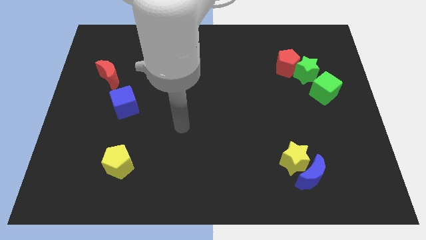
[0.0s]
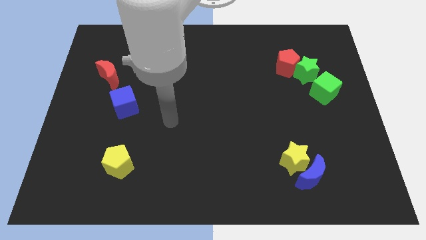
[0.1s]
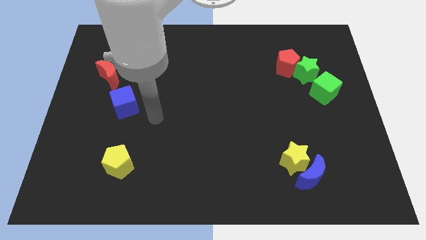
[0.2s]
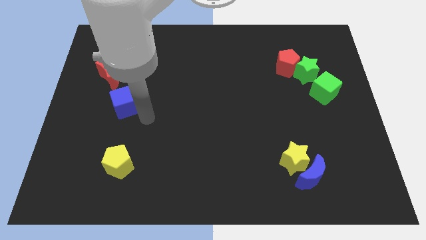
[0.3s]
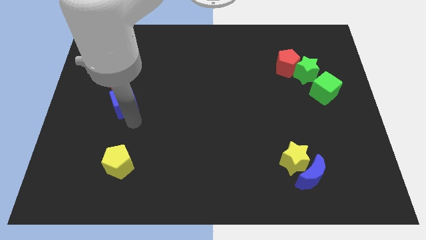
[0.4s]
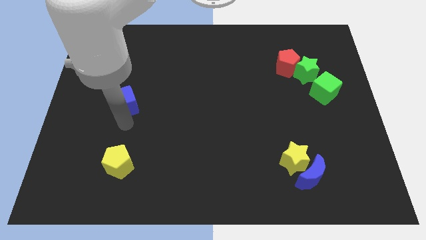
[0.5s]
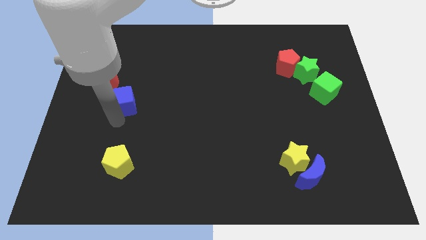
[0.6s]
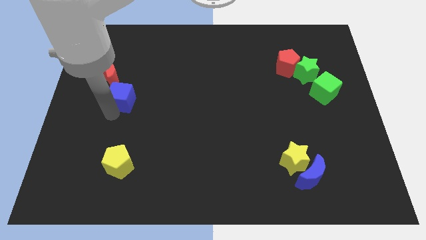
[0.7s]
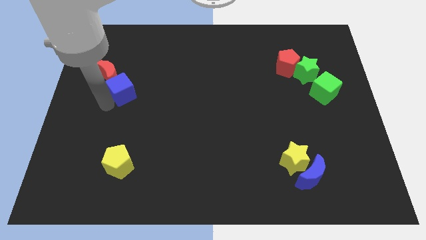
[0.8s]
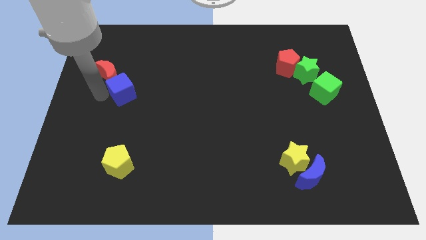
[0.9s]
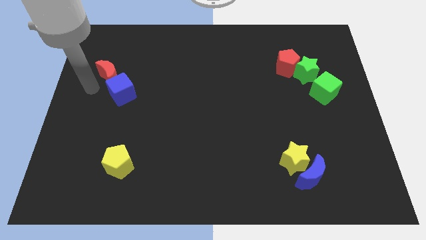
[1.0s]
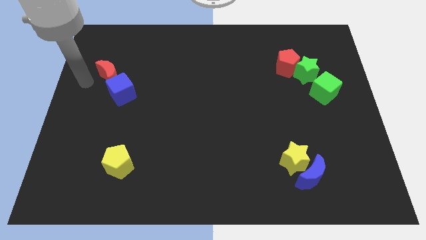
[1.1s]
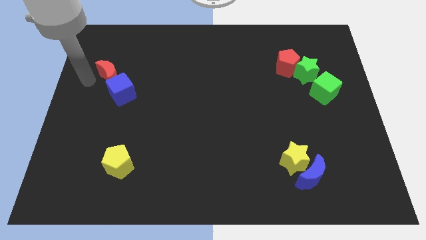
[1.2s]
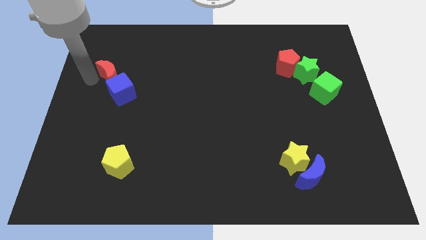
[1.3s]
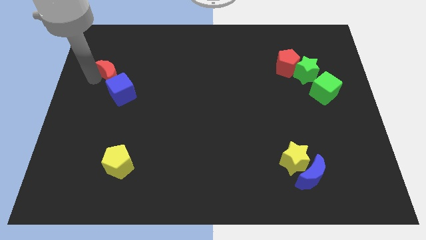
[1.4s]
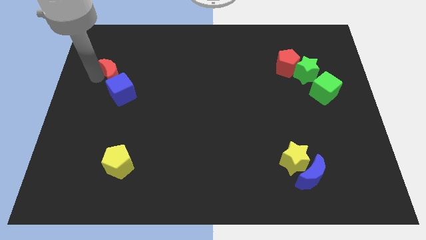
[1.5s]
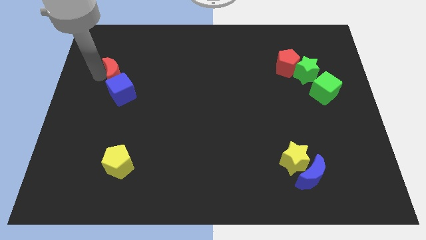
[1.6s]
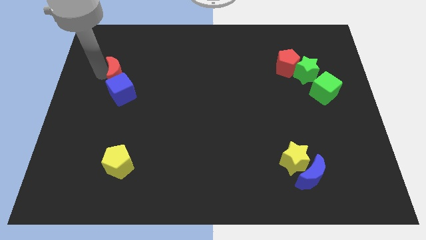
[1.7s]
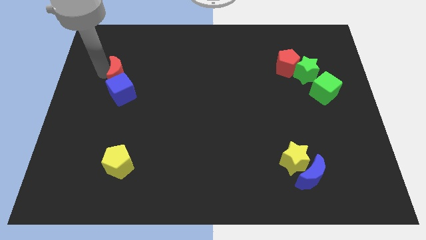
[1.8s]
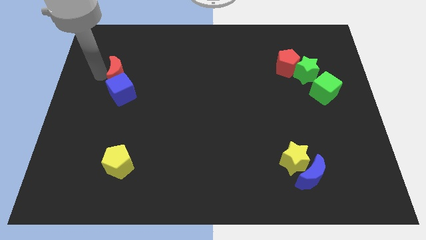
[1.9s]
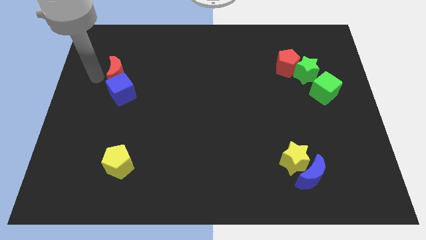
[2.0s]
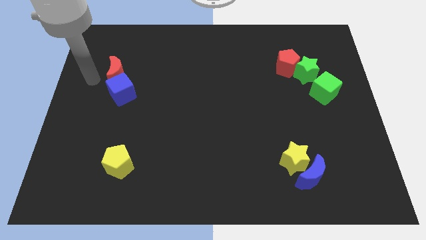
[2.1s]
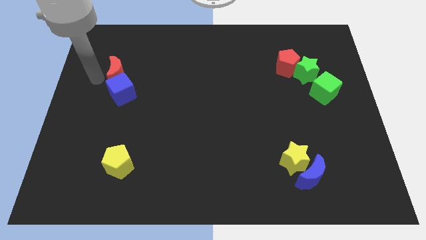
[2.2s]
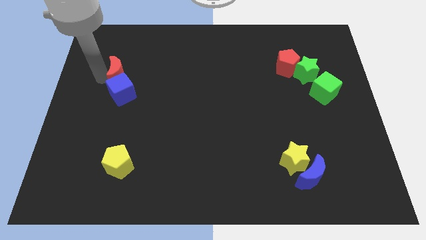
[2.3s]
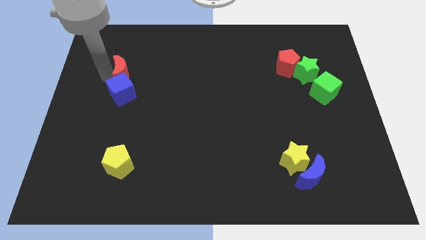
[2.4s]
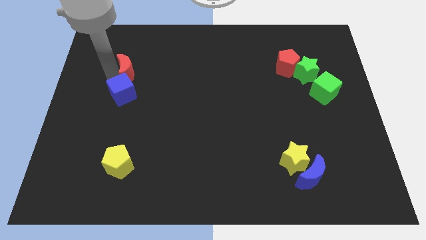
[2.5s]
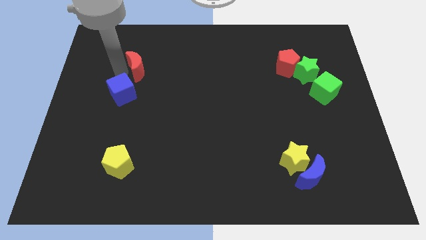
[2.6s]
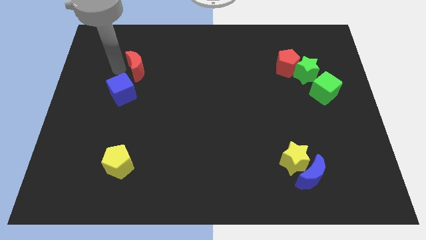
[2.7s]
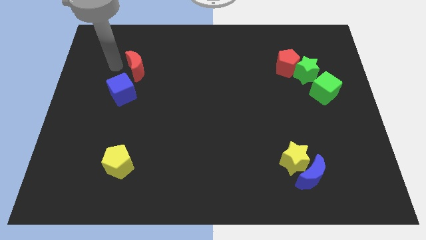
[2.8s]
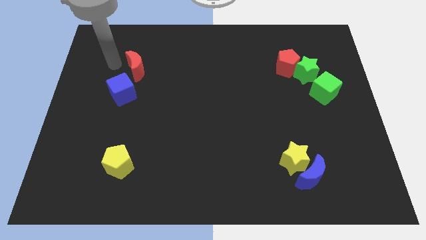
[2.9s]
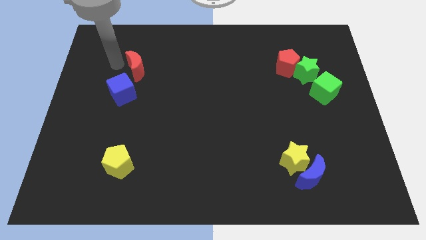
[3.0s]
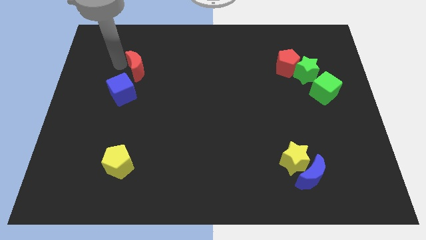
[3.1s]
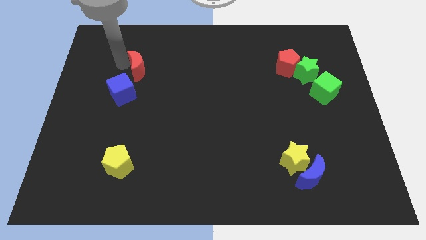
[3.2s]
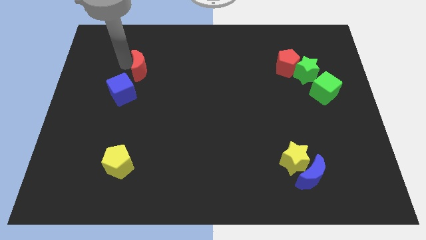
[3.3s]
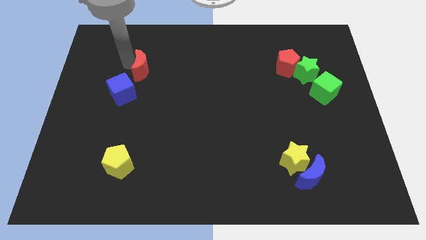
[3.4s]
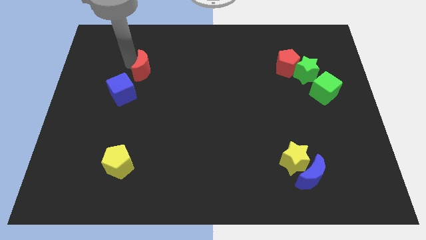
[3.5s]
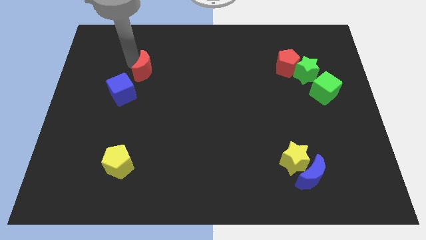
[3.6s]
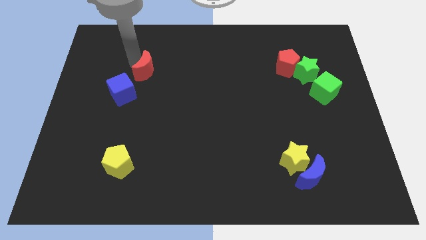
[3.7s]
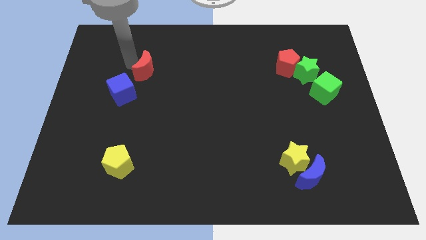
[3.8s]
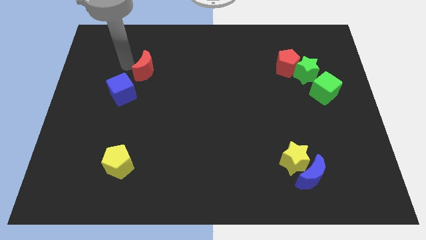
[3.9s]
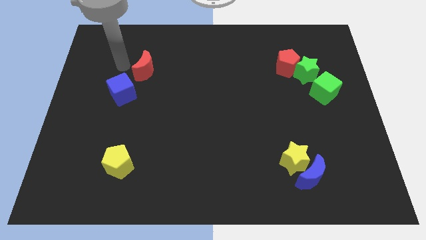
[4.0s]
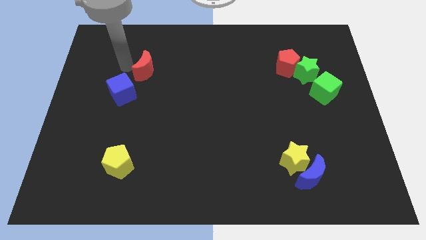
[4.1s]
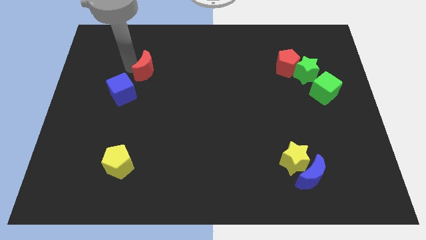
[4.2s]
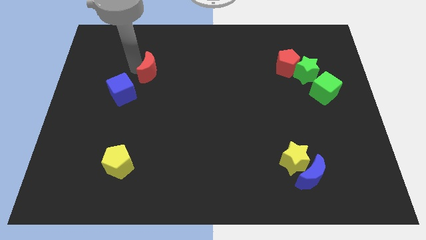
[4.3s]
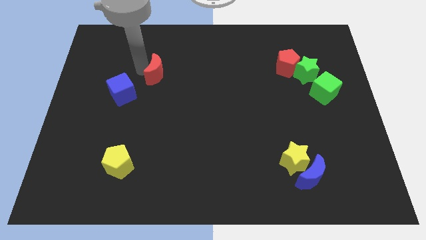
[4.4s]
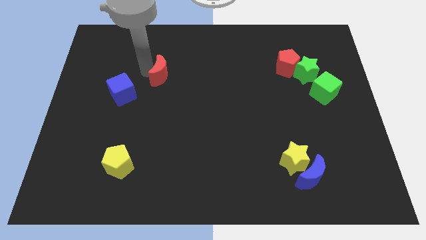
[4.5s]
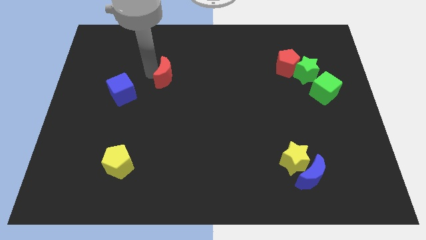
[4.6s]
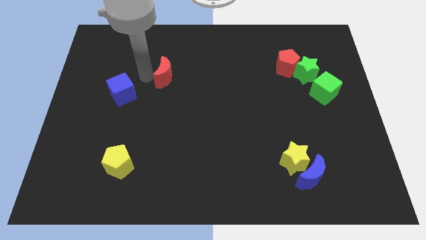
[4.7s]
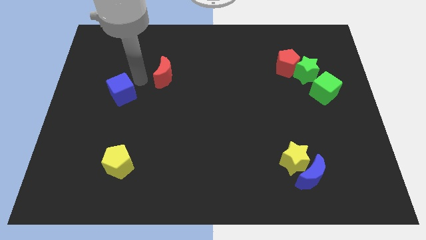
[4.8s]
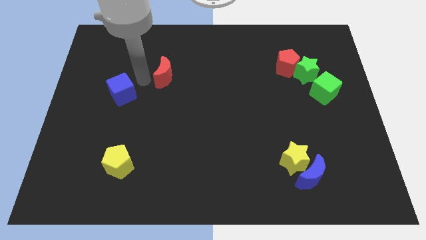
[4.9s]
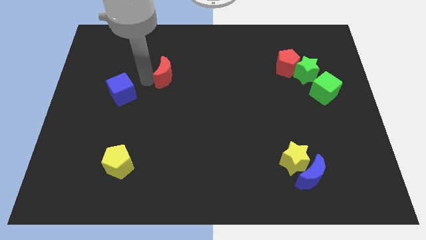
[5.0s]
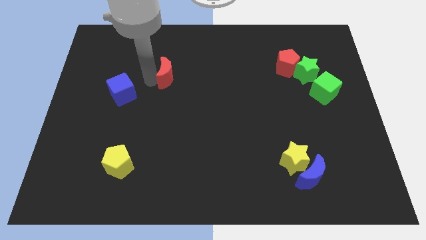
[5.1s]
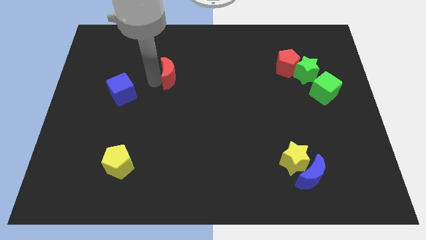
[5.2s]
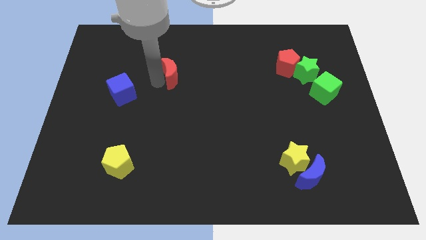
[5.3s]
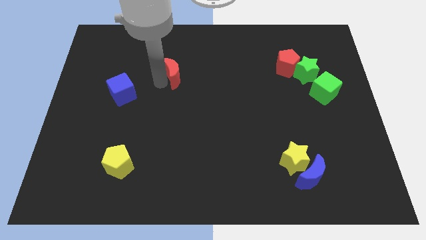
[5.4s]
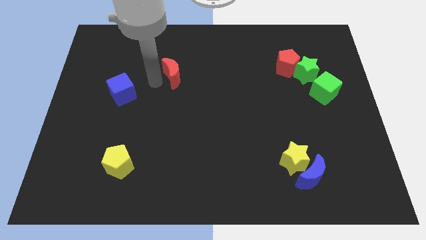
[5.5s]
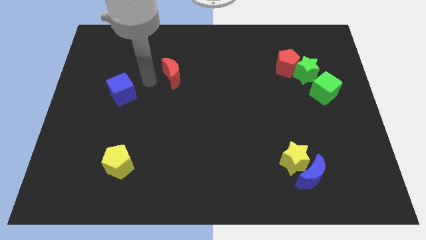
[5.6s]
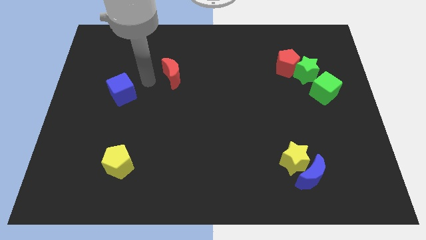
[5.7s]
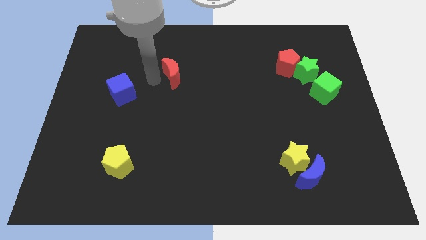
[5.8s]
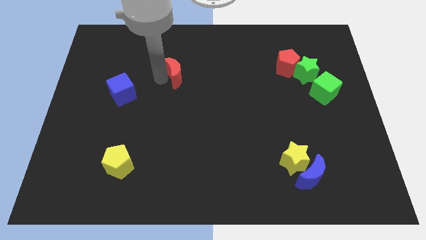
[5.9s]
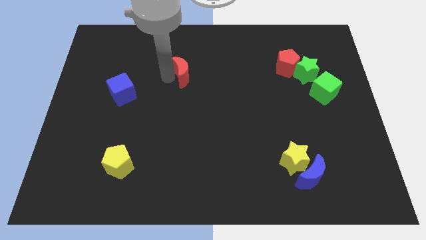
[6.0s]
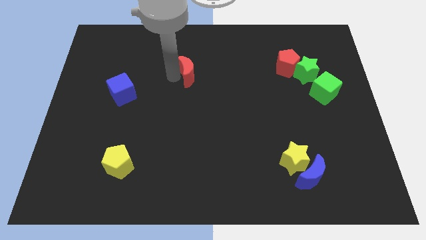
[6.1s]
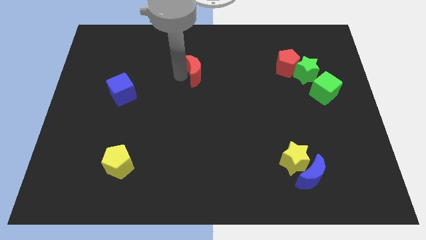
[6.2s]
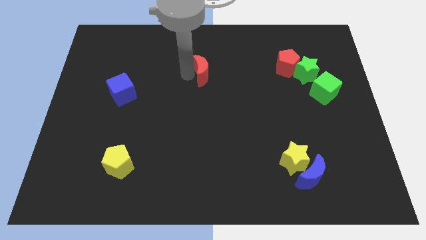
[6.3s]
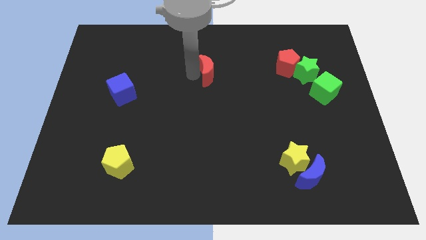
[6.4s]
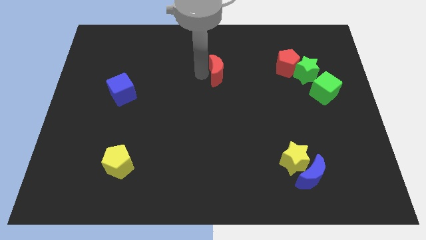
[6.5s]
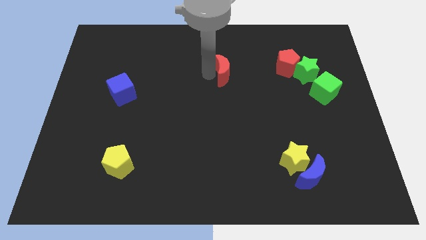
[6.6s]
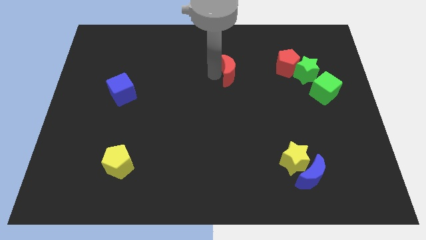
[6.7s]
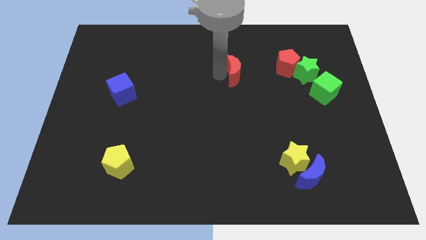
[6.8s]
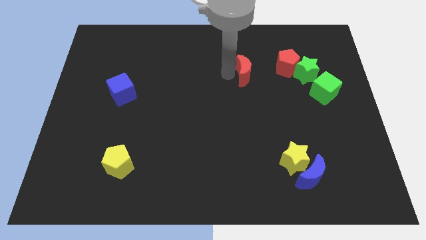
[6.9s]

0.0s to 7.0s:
put the red moon to the left of the green star

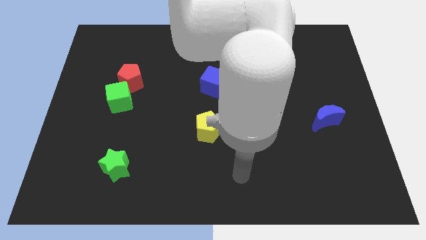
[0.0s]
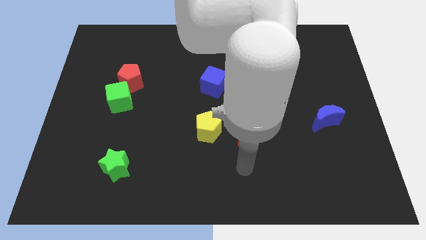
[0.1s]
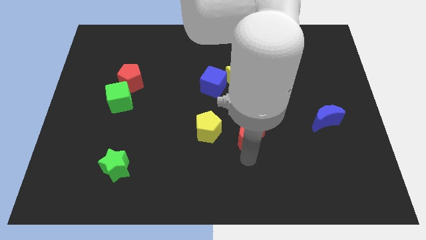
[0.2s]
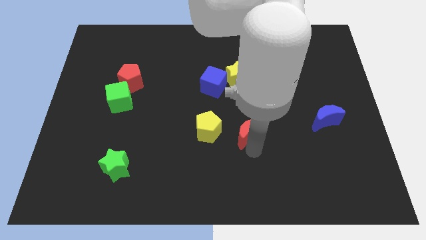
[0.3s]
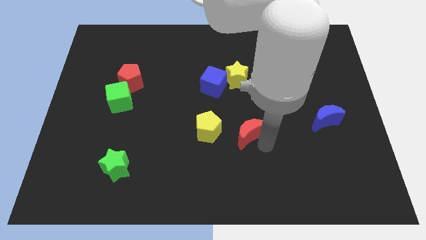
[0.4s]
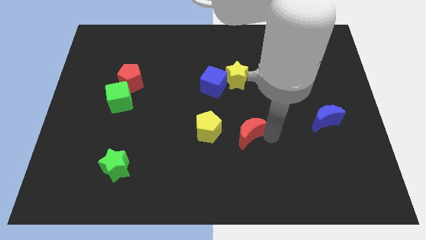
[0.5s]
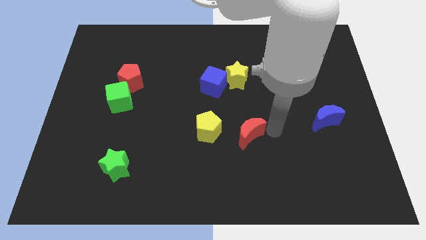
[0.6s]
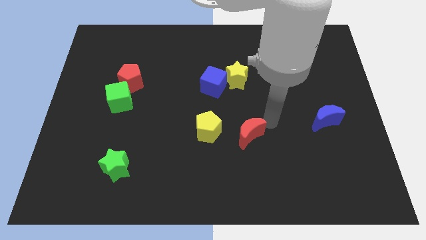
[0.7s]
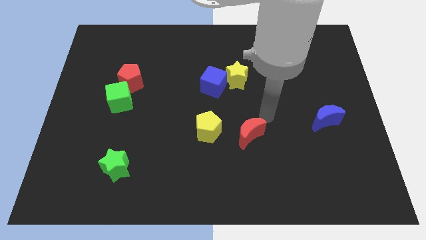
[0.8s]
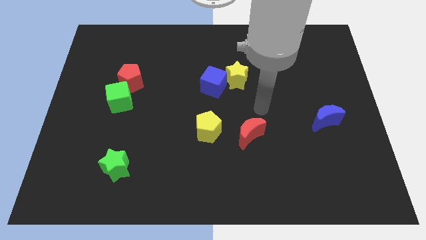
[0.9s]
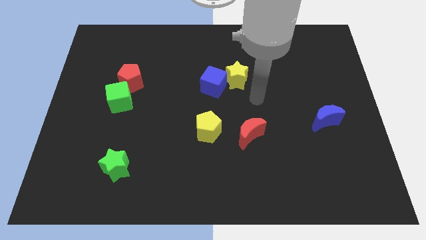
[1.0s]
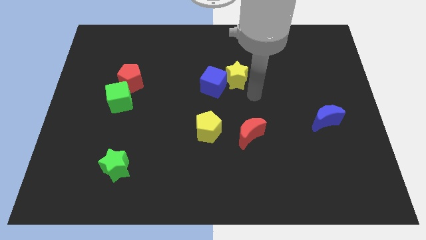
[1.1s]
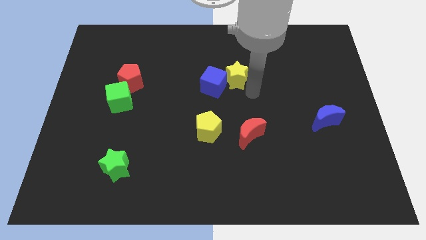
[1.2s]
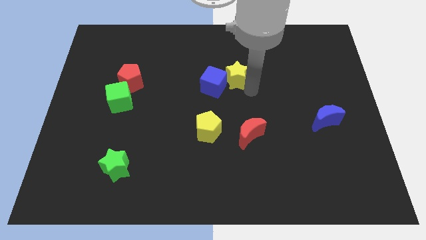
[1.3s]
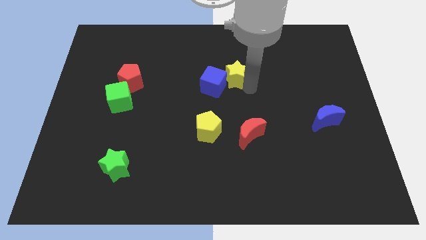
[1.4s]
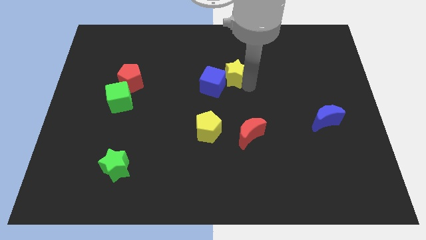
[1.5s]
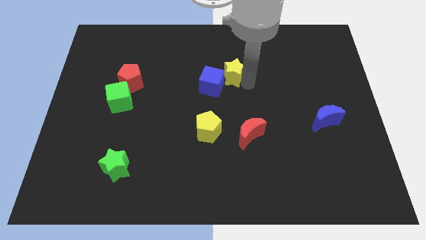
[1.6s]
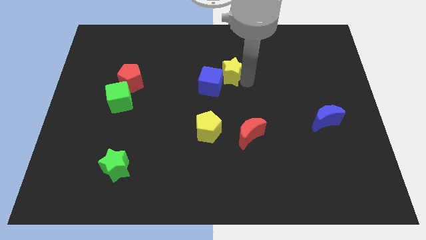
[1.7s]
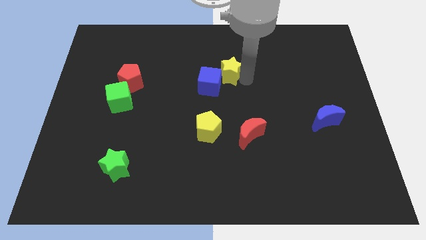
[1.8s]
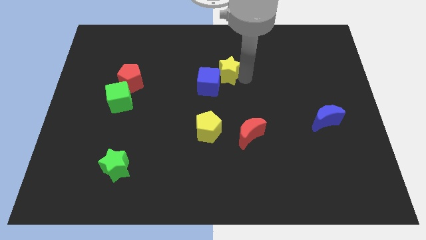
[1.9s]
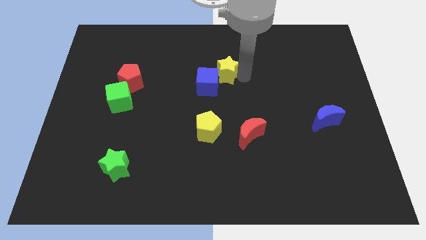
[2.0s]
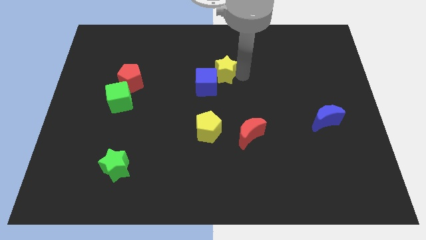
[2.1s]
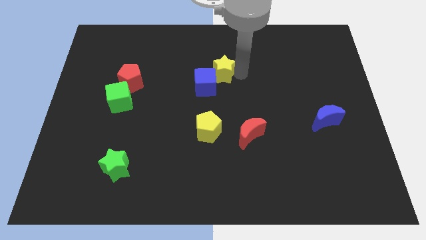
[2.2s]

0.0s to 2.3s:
move the yellow star to the top side of the blue cube
